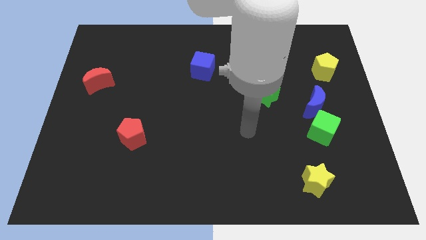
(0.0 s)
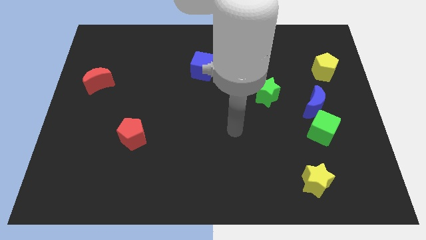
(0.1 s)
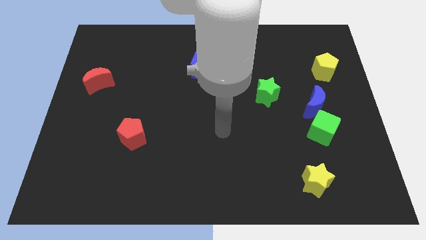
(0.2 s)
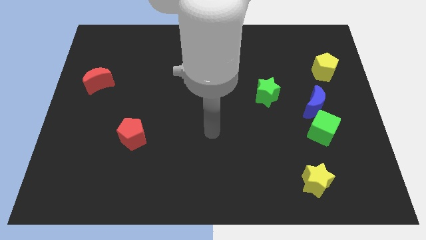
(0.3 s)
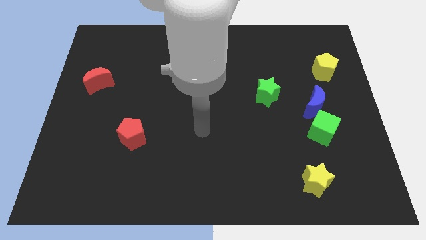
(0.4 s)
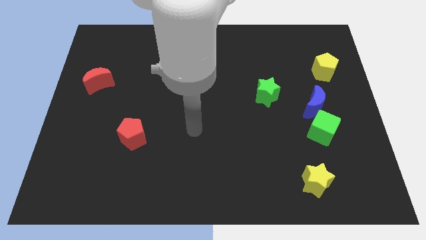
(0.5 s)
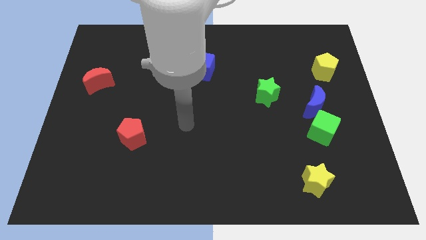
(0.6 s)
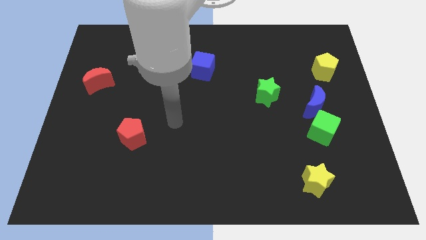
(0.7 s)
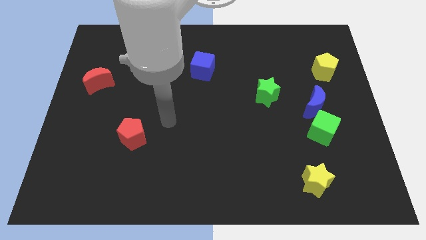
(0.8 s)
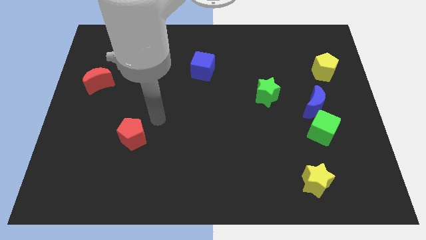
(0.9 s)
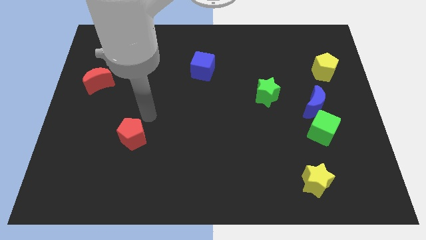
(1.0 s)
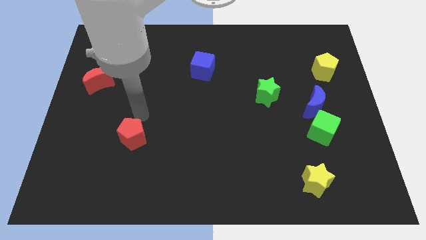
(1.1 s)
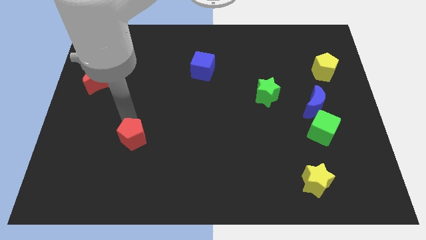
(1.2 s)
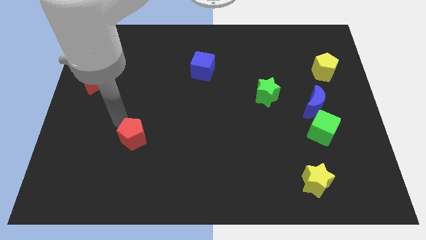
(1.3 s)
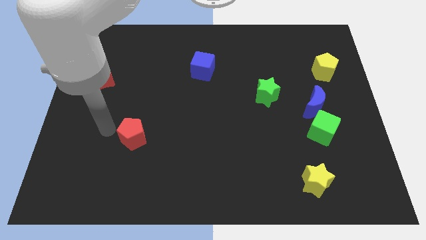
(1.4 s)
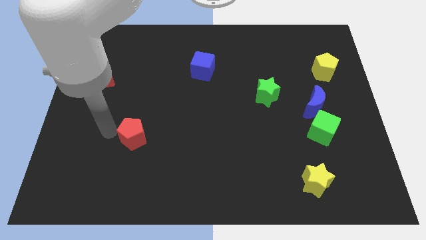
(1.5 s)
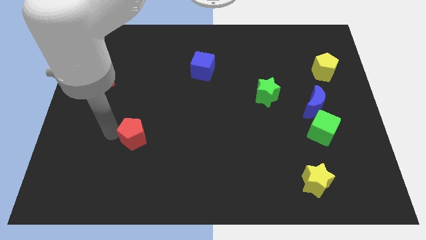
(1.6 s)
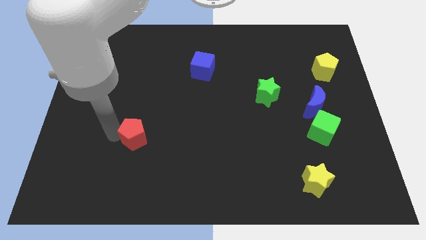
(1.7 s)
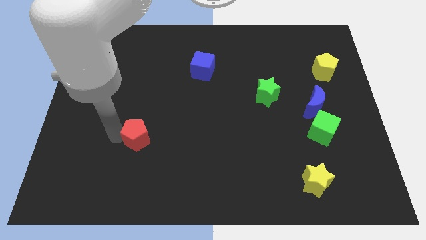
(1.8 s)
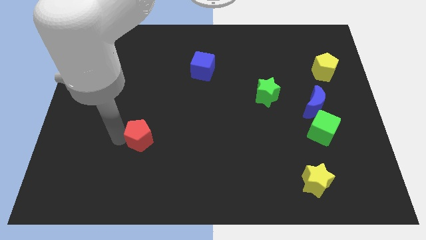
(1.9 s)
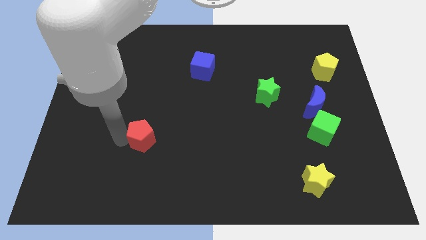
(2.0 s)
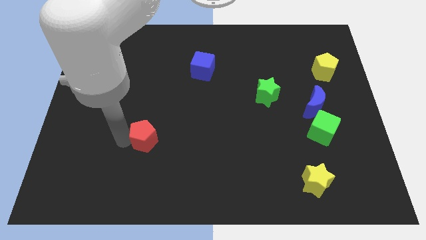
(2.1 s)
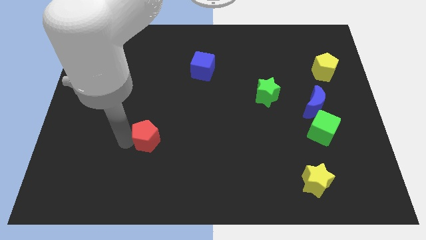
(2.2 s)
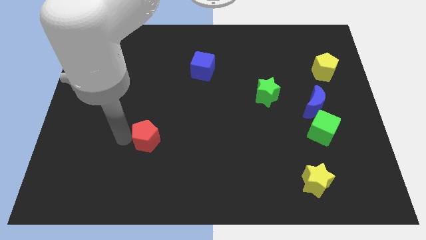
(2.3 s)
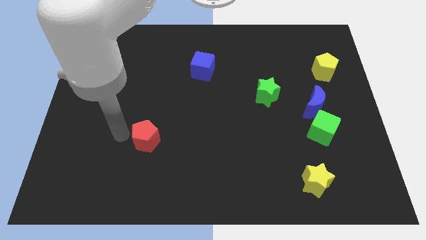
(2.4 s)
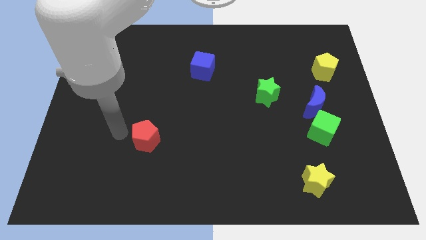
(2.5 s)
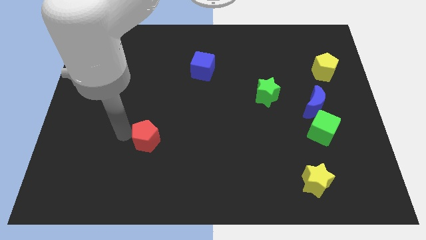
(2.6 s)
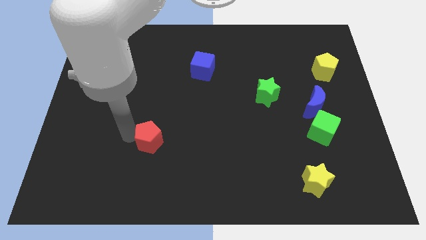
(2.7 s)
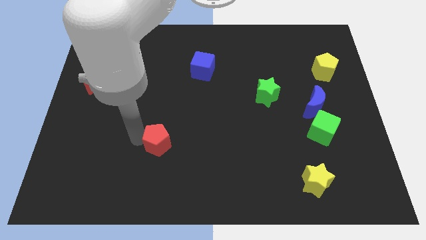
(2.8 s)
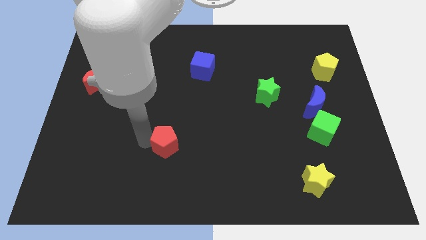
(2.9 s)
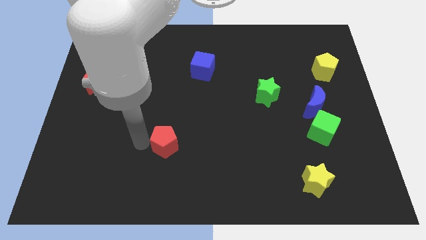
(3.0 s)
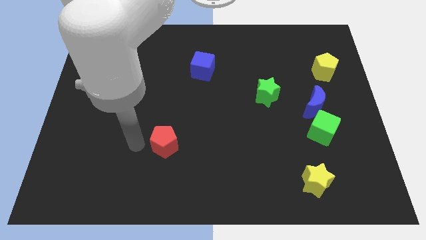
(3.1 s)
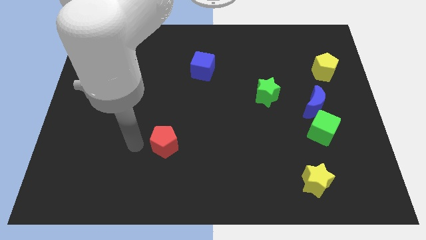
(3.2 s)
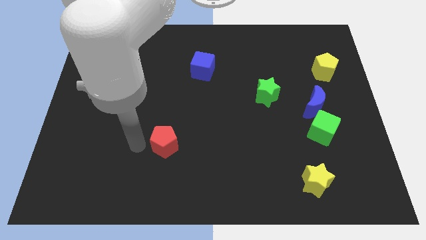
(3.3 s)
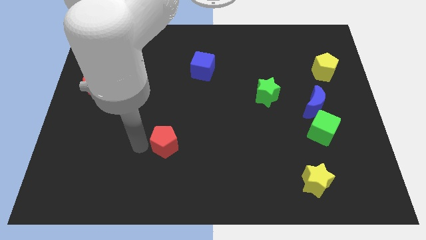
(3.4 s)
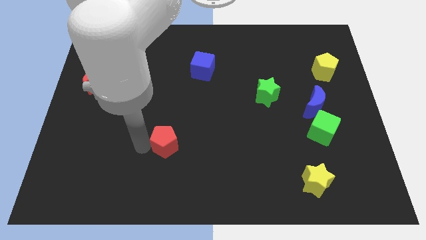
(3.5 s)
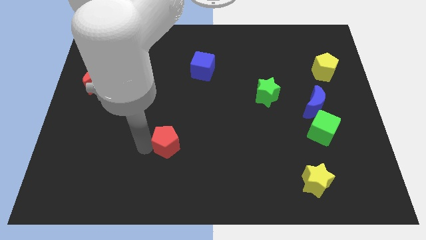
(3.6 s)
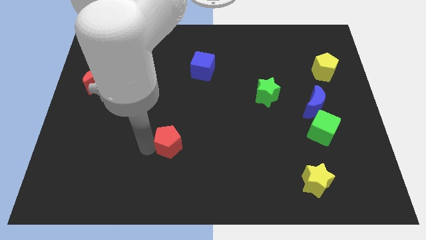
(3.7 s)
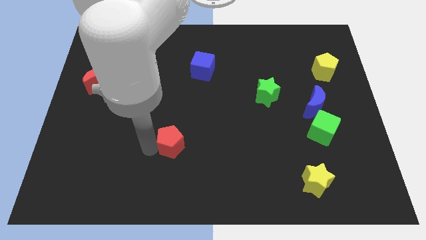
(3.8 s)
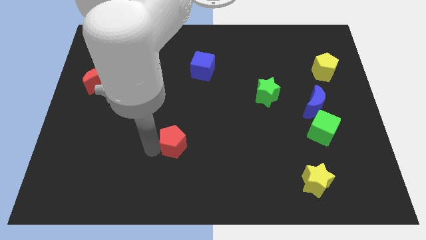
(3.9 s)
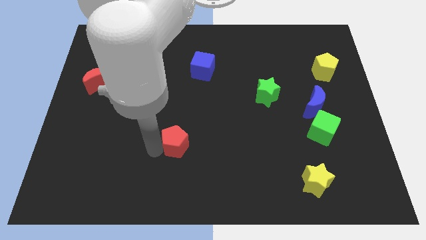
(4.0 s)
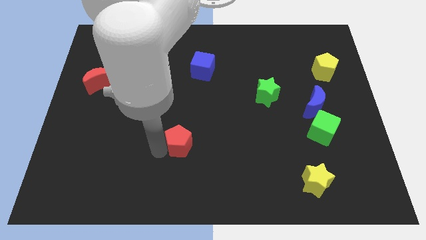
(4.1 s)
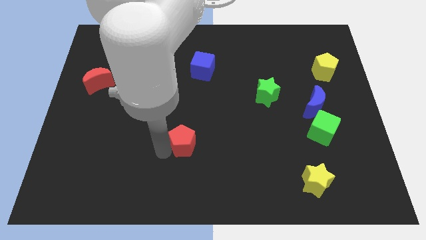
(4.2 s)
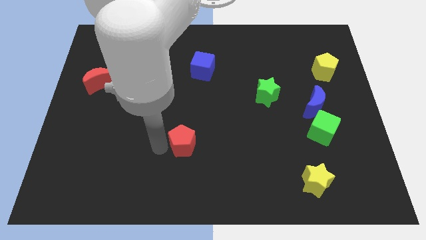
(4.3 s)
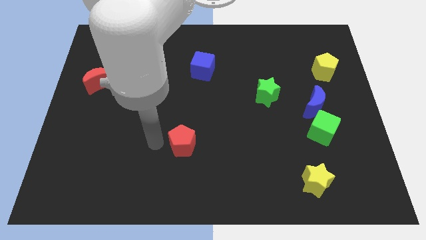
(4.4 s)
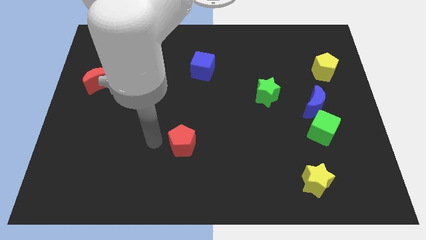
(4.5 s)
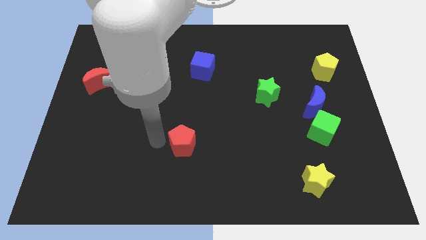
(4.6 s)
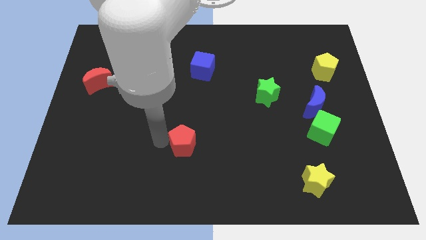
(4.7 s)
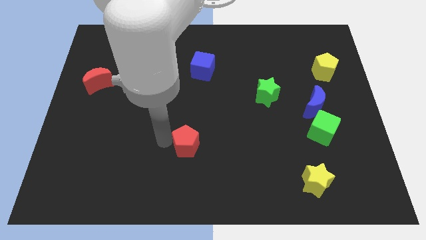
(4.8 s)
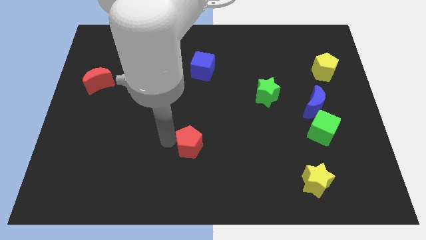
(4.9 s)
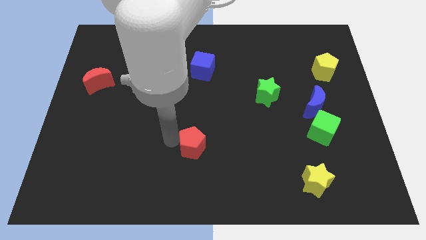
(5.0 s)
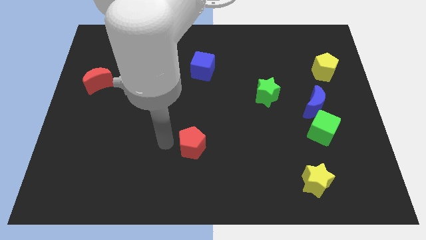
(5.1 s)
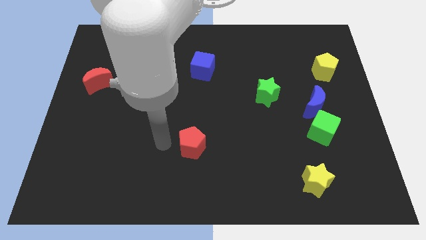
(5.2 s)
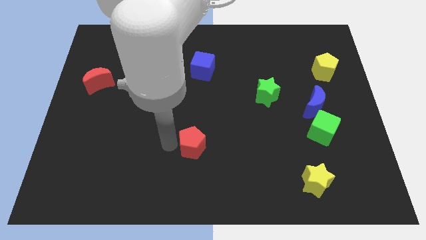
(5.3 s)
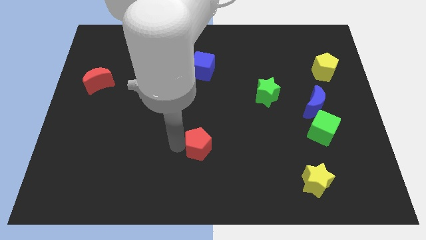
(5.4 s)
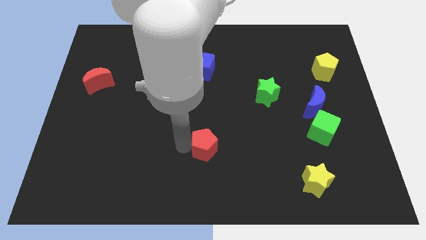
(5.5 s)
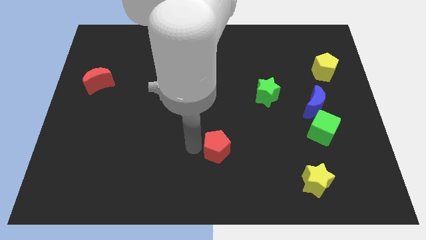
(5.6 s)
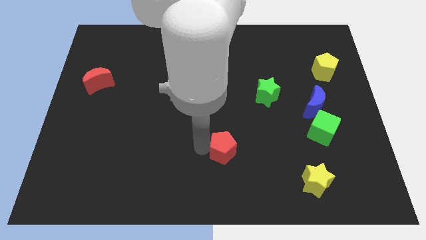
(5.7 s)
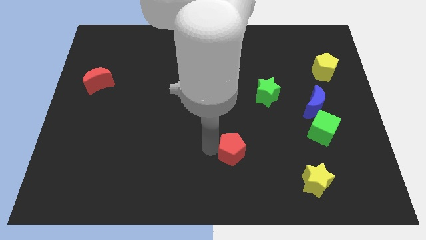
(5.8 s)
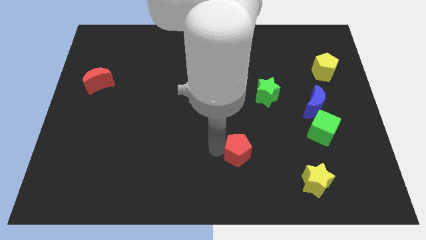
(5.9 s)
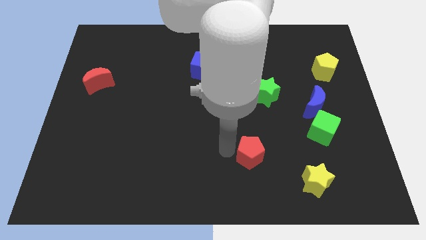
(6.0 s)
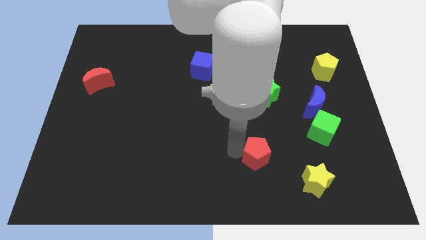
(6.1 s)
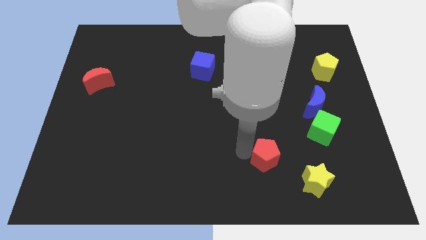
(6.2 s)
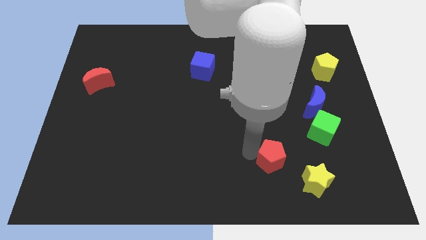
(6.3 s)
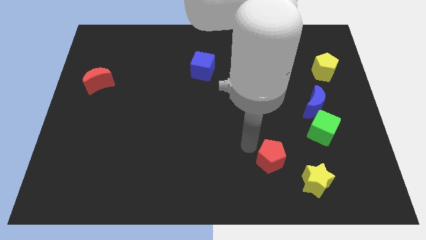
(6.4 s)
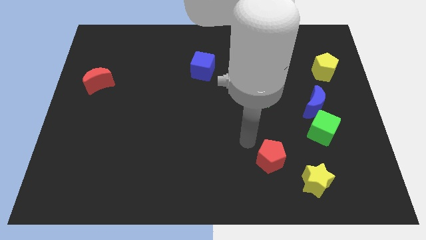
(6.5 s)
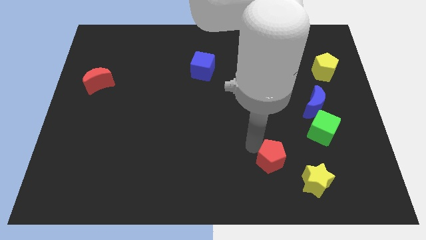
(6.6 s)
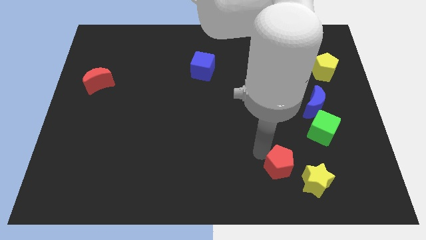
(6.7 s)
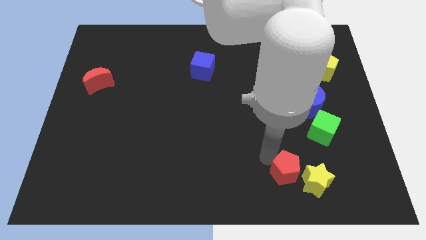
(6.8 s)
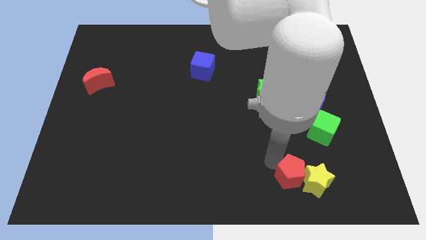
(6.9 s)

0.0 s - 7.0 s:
slide the red pentagon to the yellow star

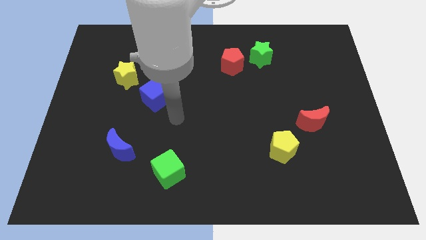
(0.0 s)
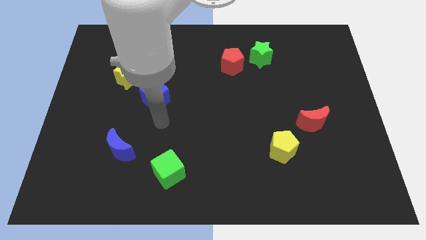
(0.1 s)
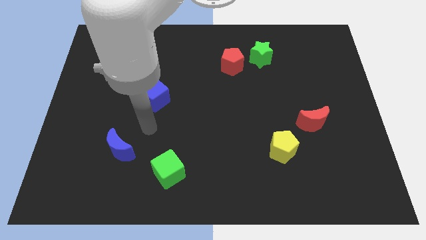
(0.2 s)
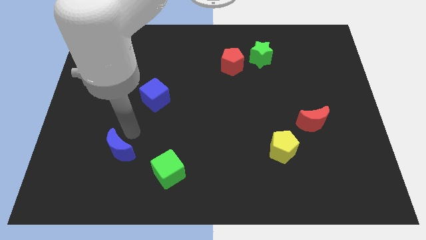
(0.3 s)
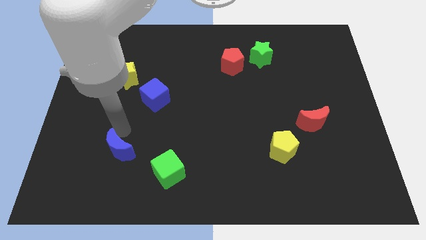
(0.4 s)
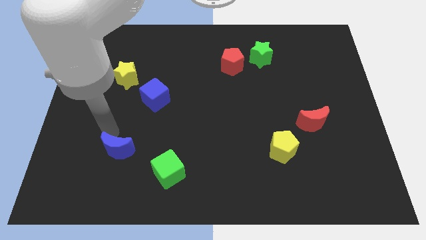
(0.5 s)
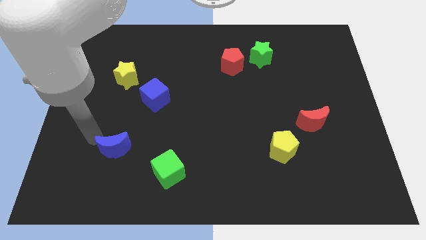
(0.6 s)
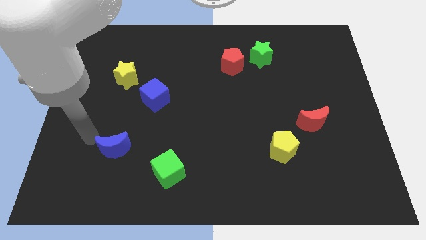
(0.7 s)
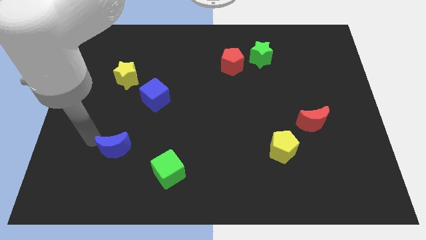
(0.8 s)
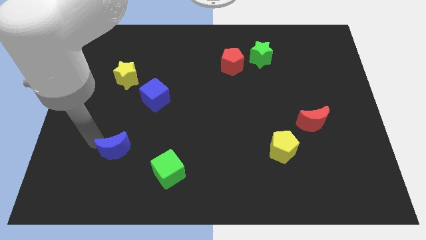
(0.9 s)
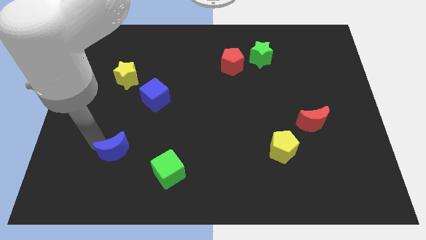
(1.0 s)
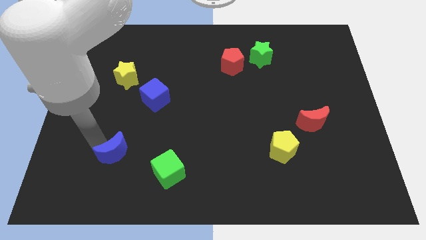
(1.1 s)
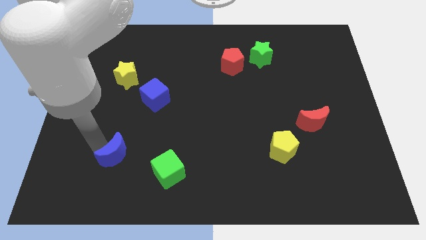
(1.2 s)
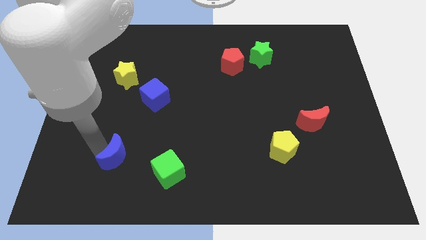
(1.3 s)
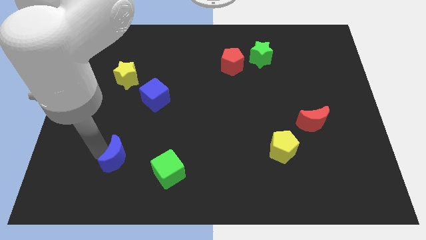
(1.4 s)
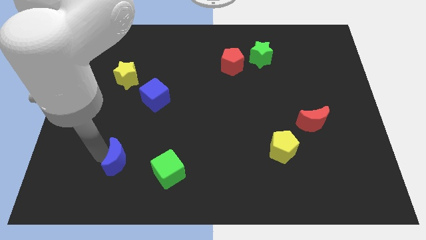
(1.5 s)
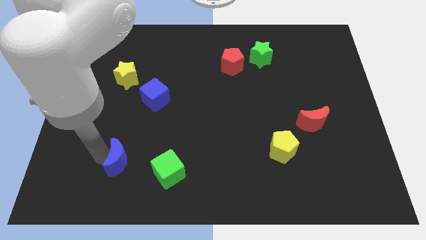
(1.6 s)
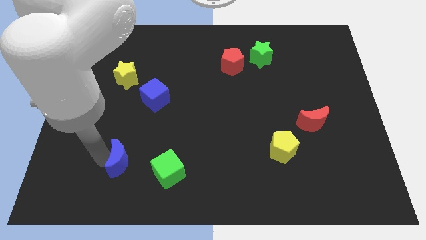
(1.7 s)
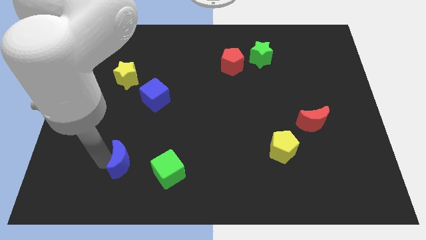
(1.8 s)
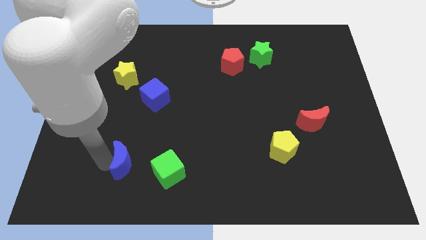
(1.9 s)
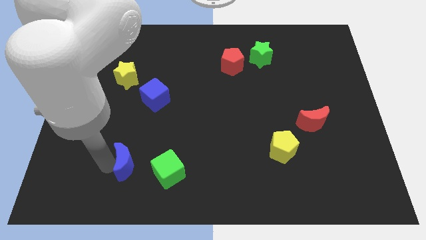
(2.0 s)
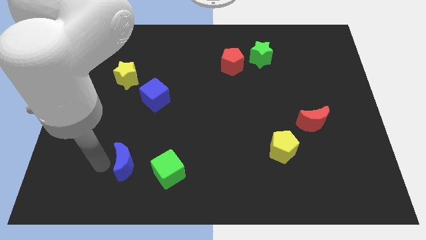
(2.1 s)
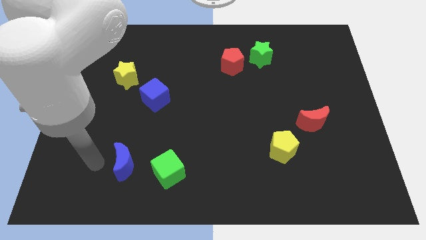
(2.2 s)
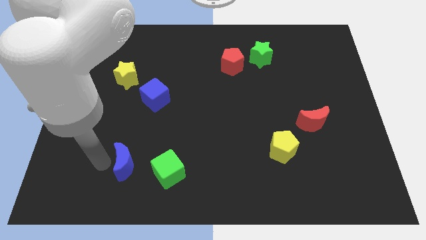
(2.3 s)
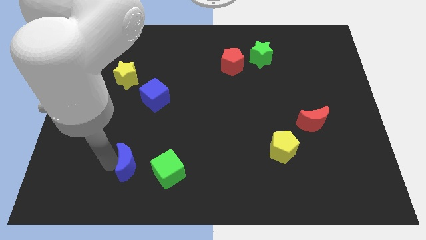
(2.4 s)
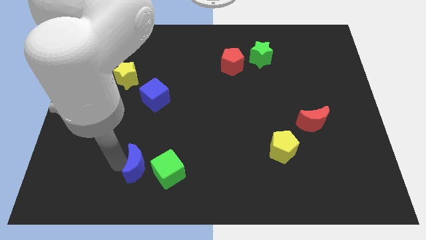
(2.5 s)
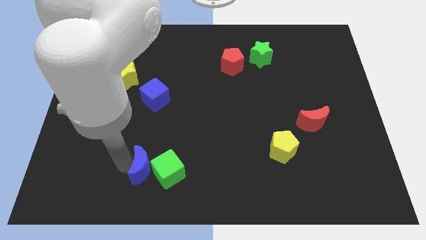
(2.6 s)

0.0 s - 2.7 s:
slide the blue moon to the green cube
